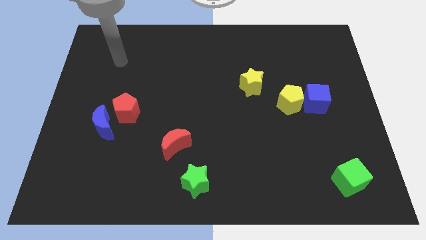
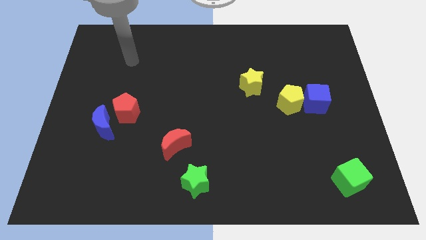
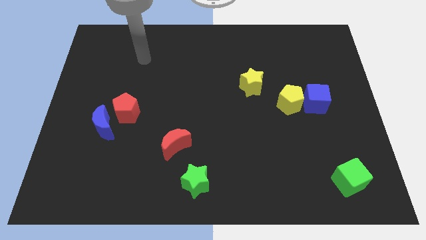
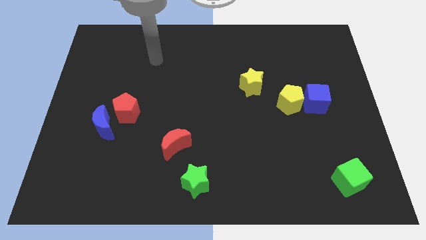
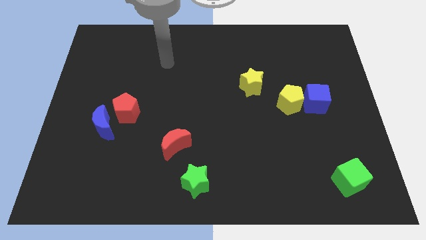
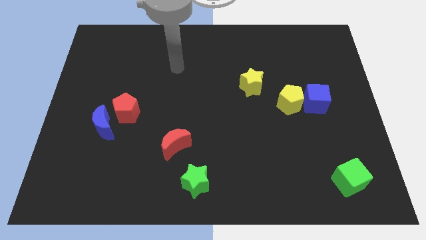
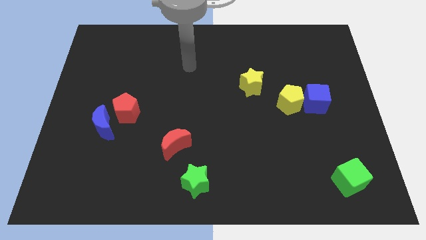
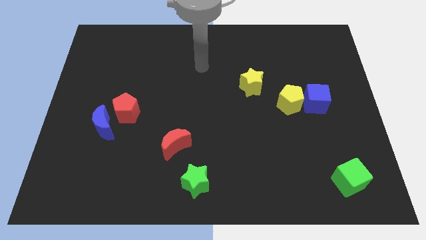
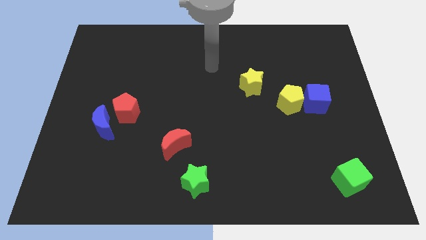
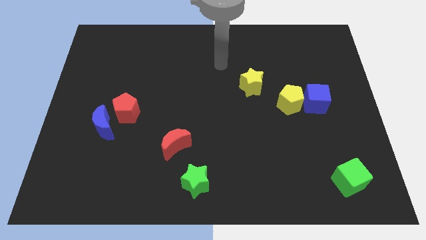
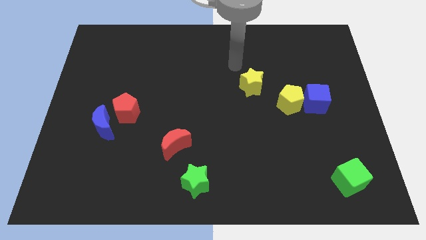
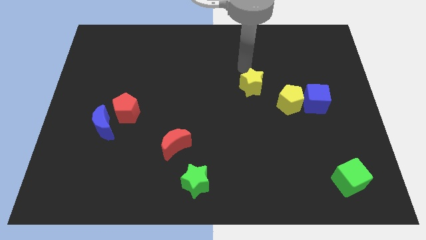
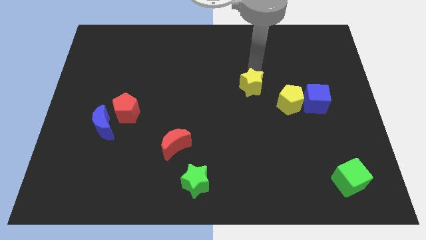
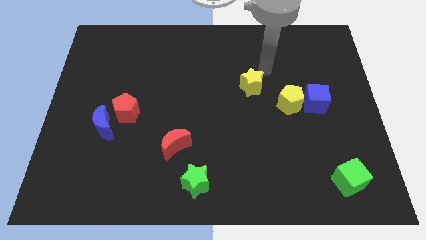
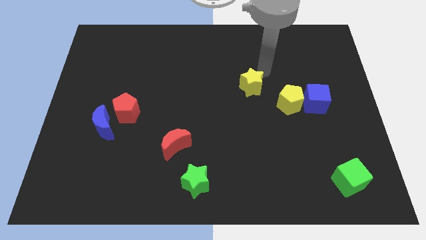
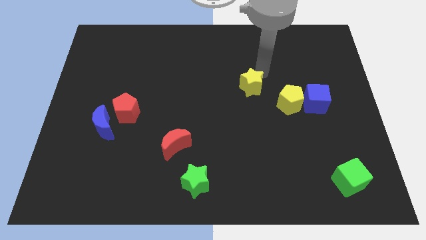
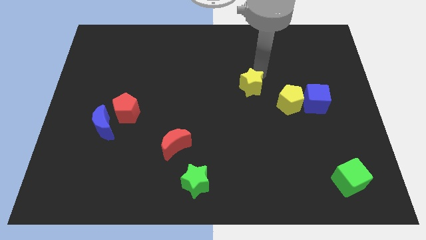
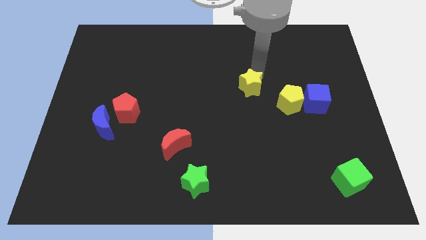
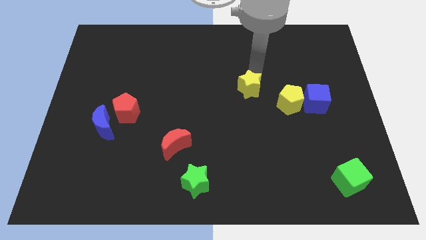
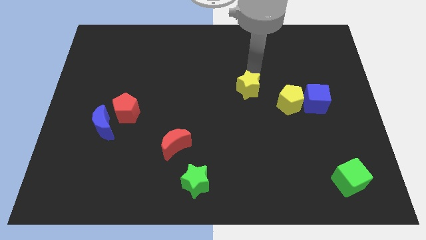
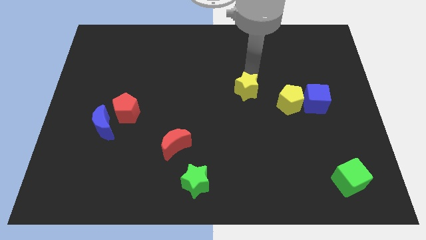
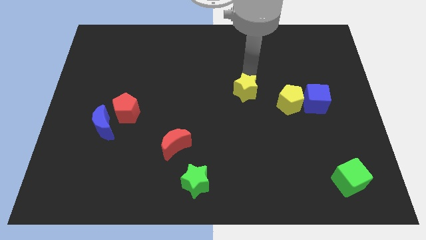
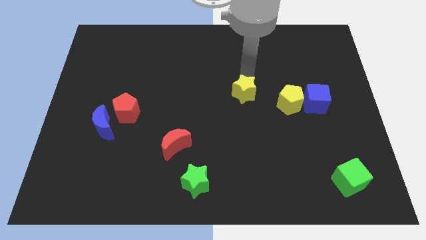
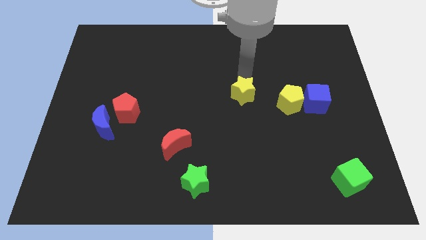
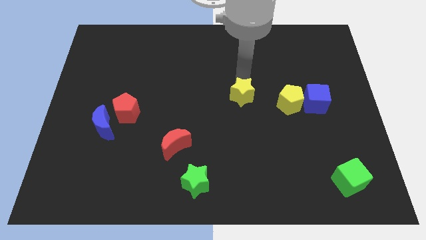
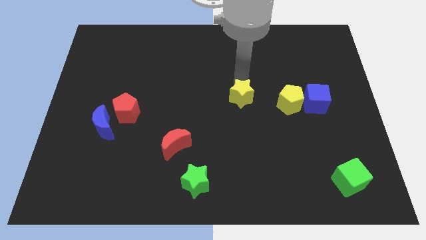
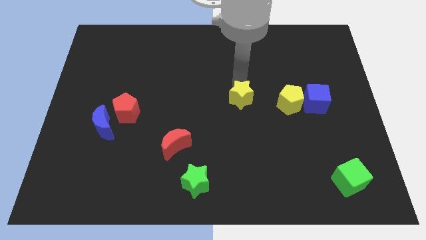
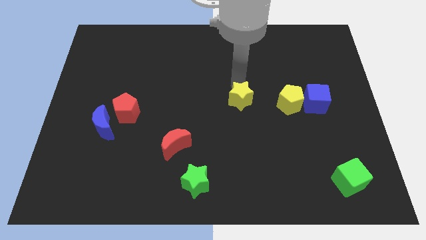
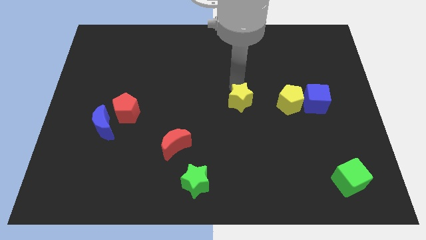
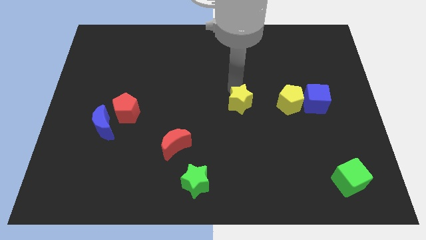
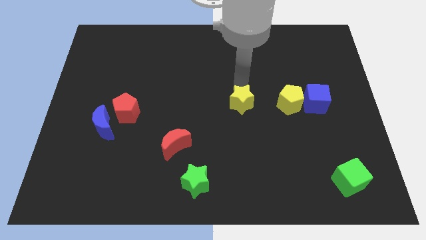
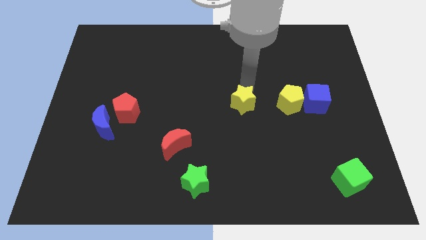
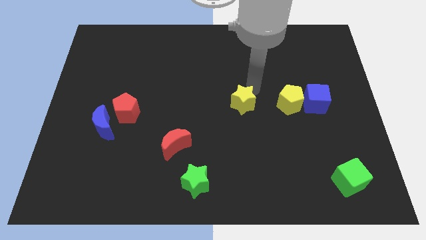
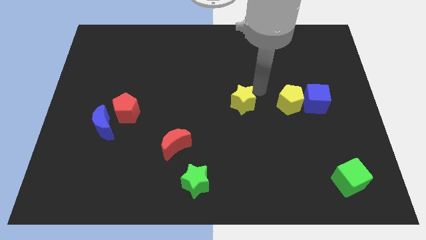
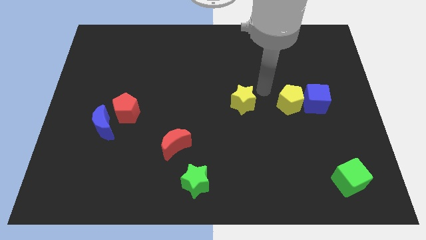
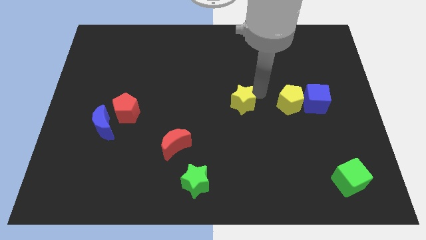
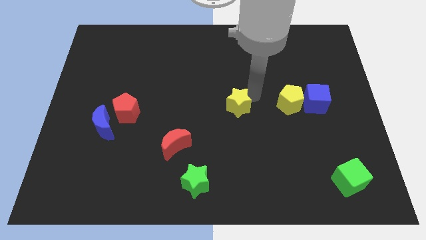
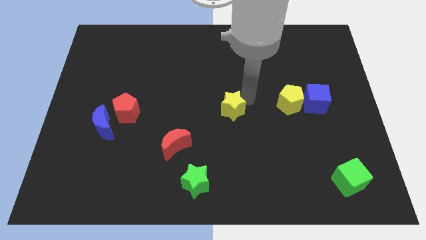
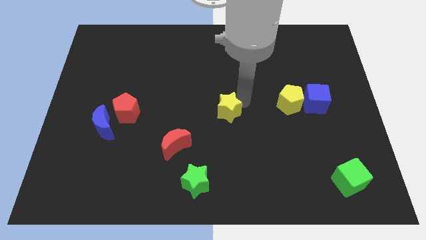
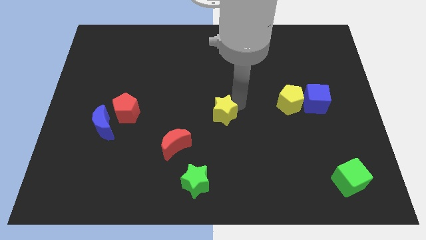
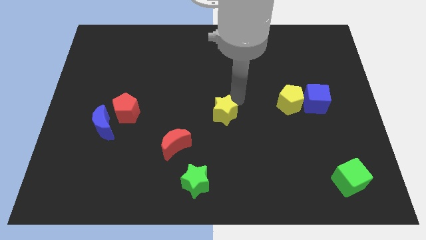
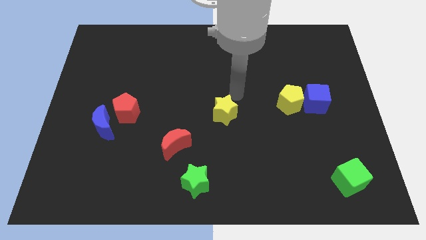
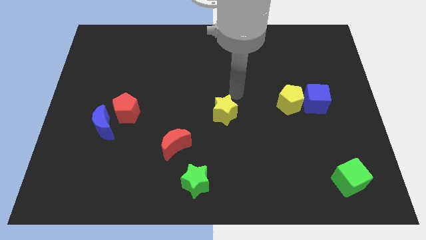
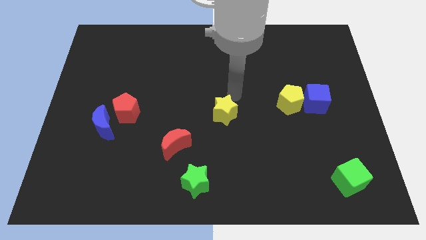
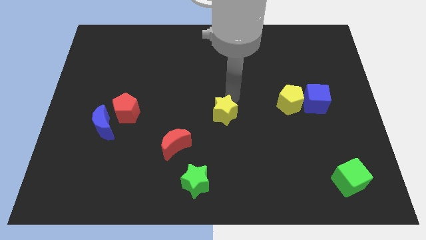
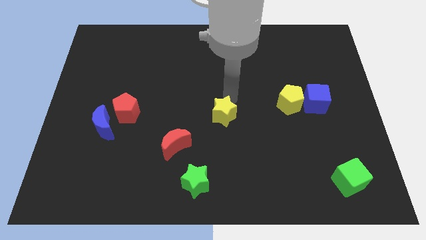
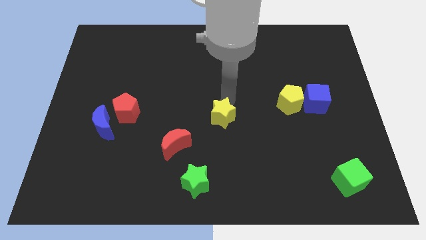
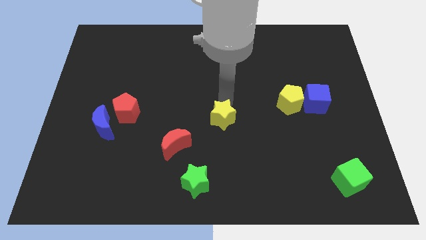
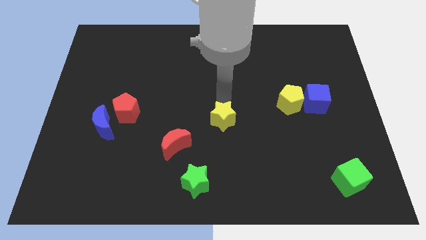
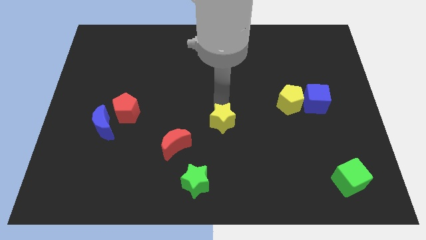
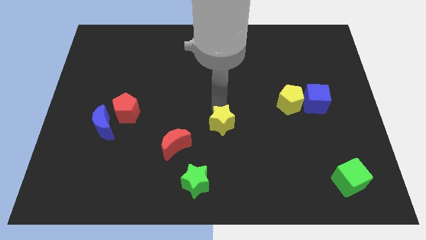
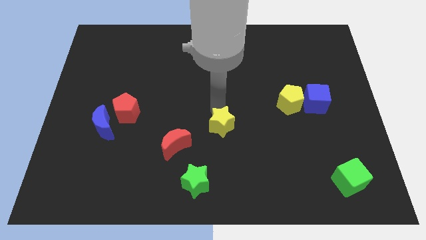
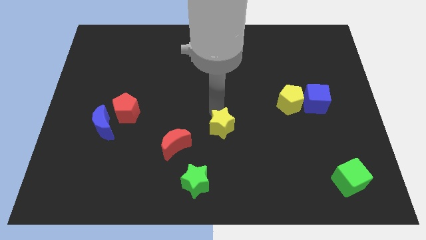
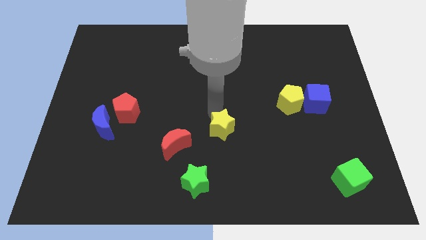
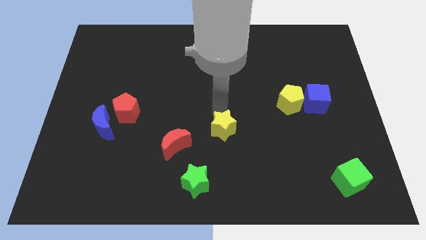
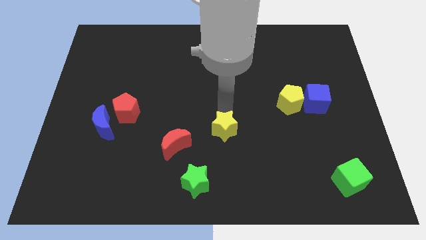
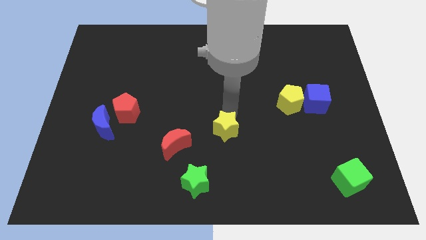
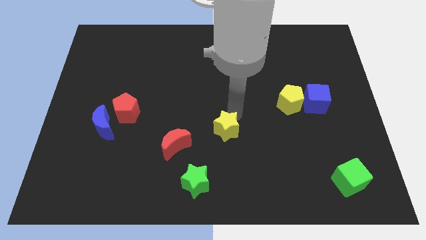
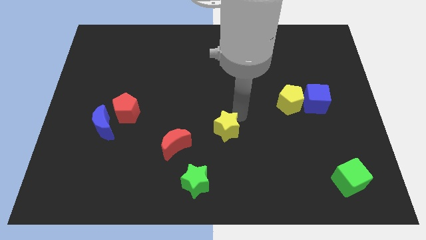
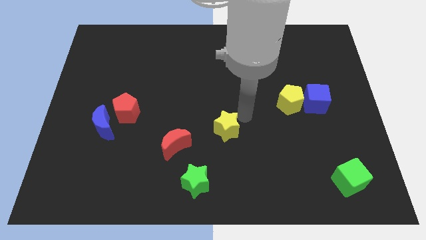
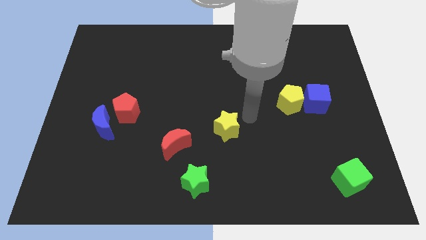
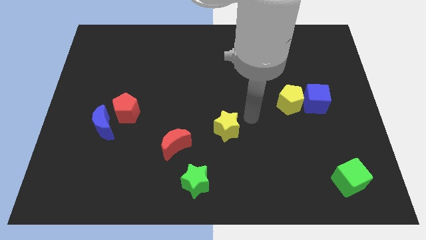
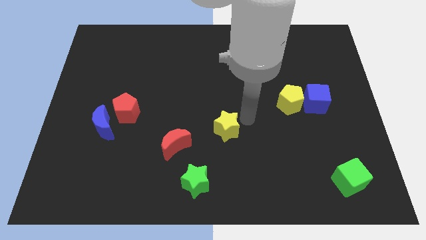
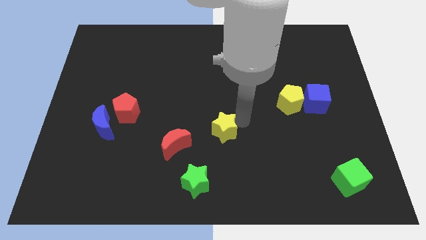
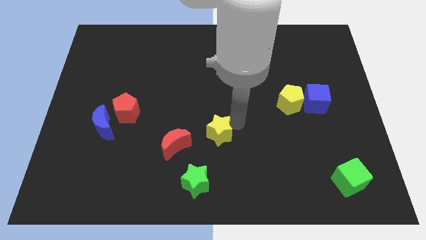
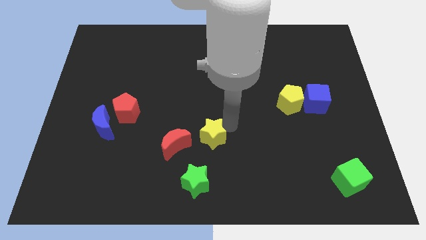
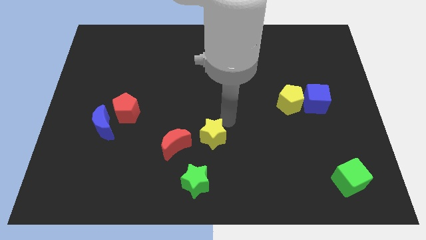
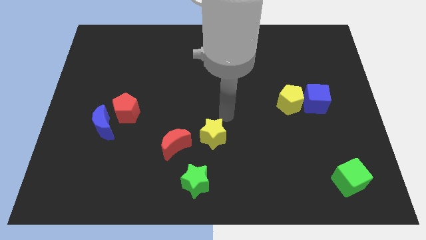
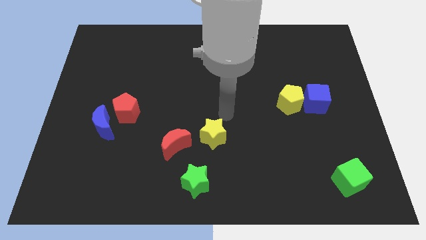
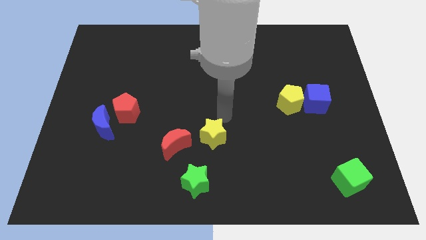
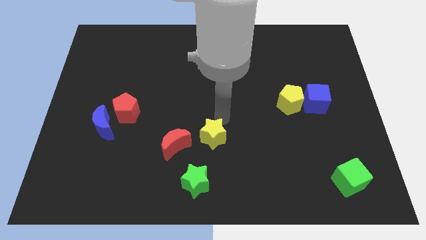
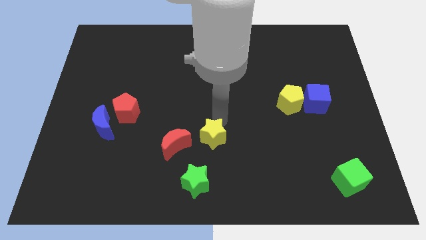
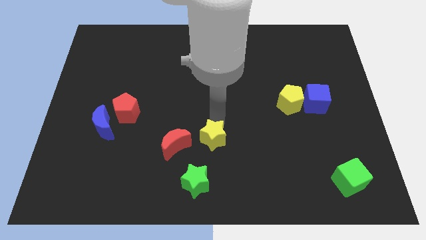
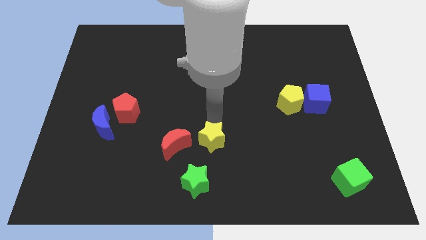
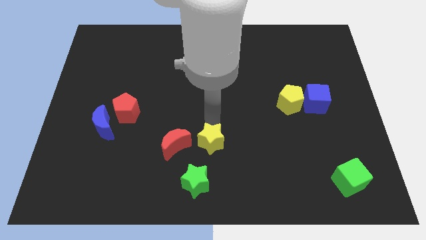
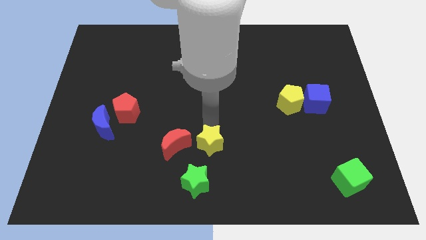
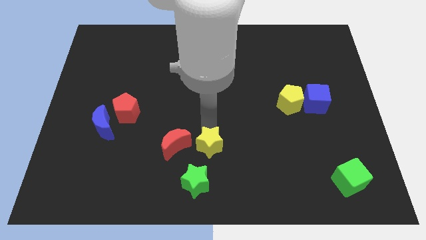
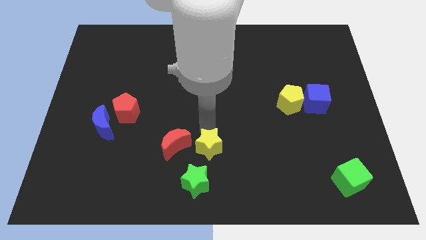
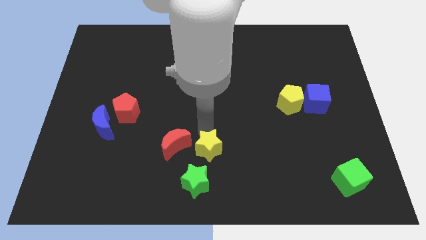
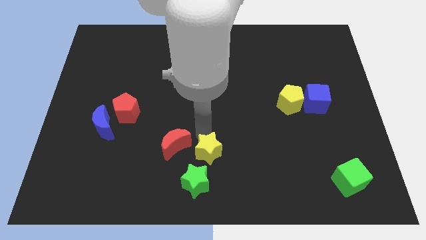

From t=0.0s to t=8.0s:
move the yellow star down and left
